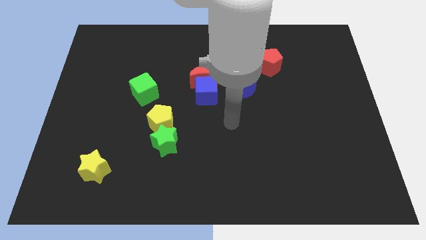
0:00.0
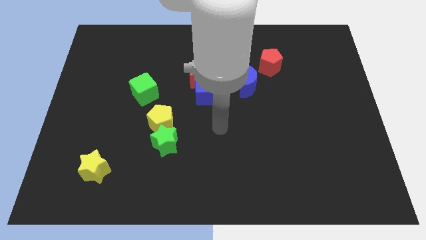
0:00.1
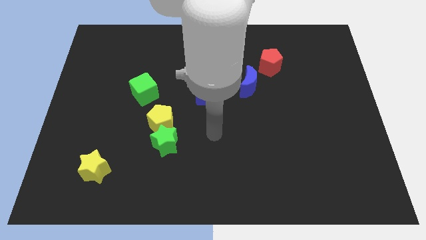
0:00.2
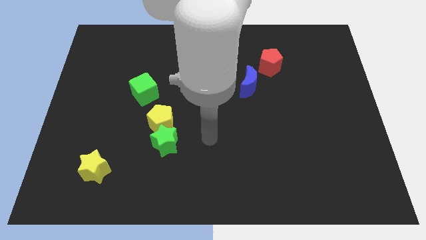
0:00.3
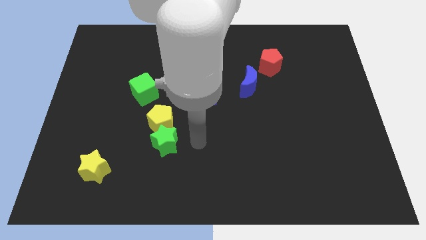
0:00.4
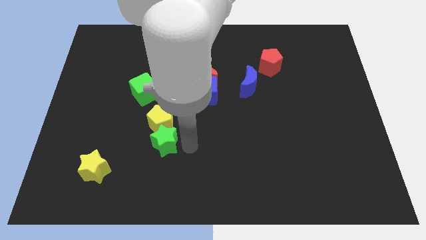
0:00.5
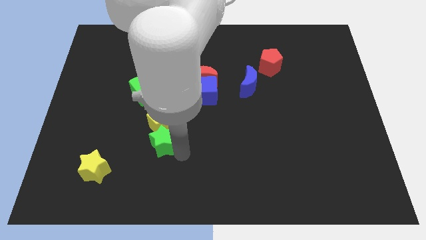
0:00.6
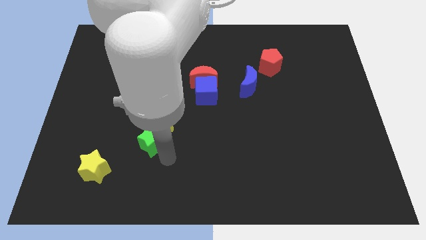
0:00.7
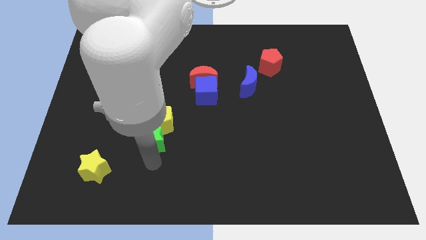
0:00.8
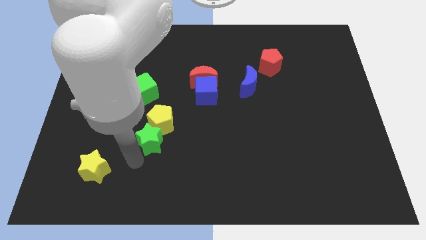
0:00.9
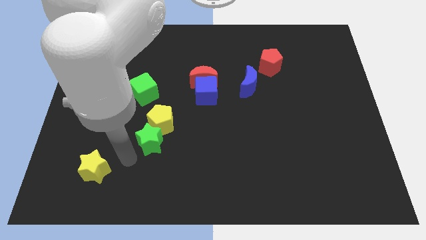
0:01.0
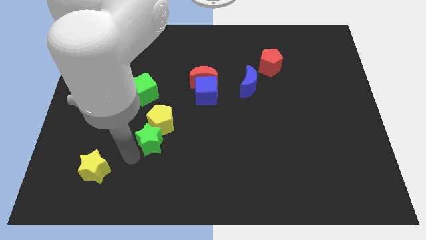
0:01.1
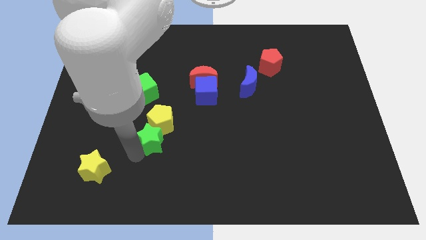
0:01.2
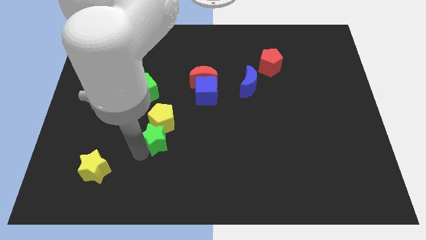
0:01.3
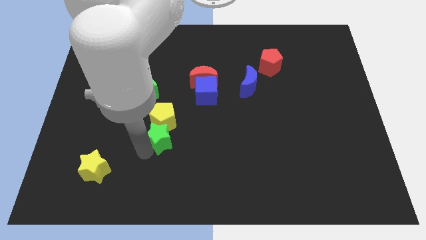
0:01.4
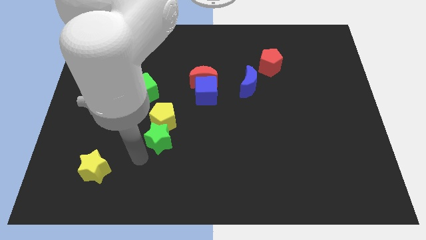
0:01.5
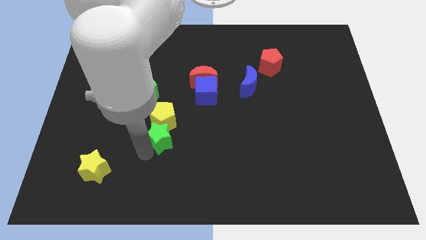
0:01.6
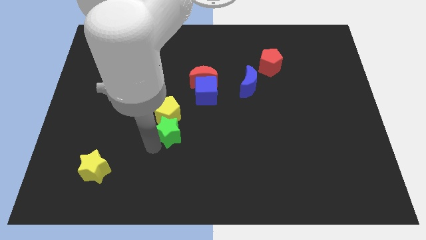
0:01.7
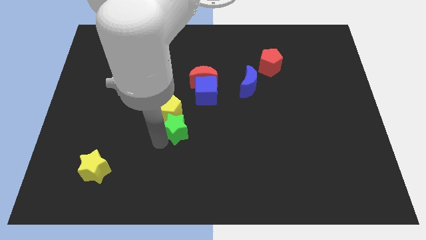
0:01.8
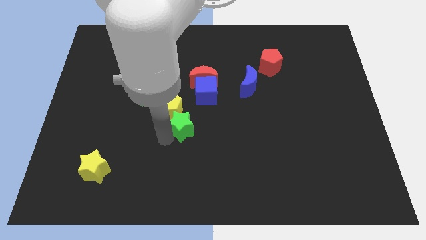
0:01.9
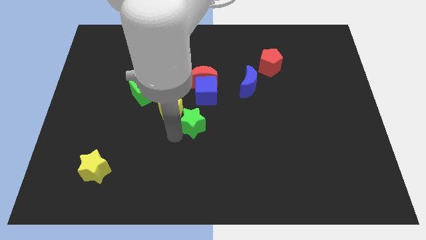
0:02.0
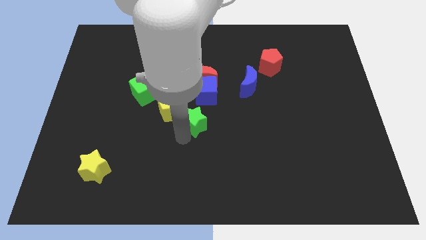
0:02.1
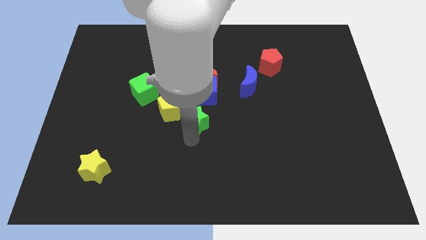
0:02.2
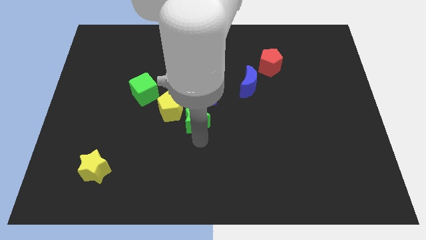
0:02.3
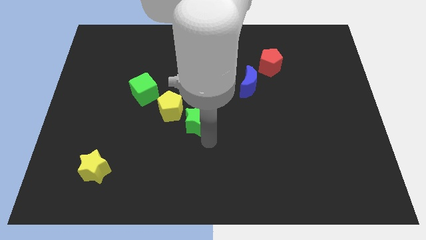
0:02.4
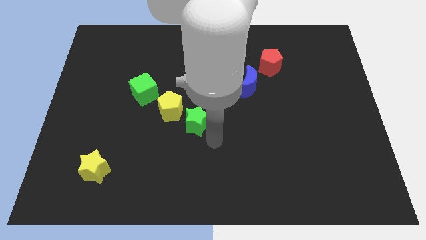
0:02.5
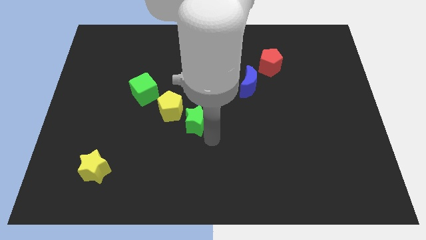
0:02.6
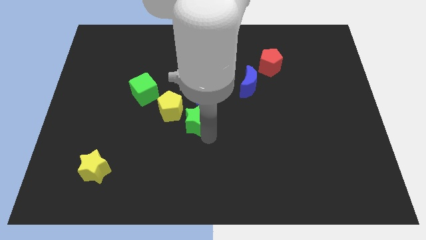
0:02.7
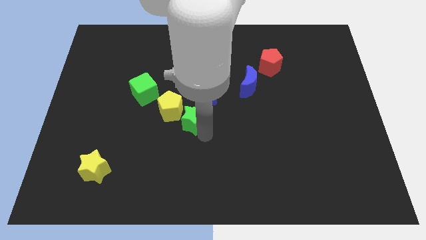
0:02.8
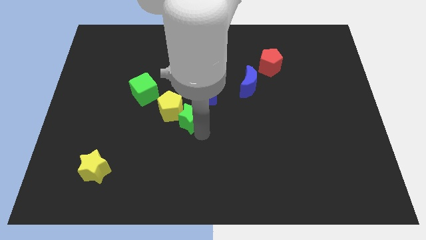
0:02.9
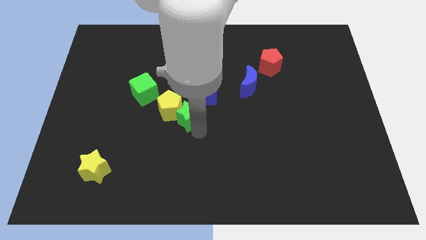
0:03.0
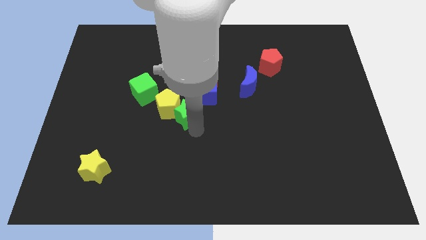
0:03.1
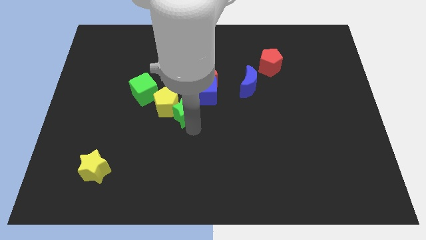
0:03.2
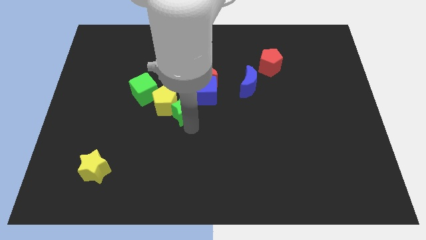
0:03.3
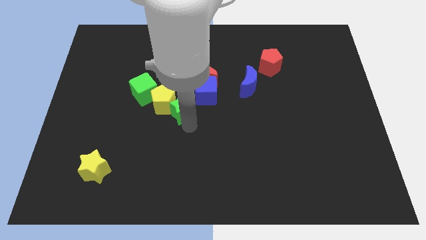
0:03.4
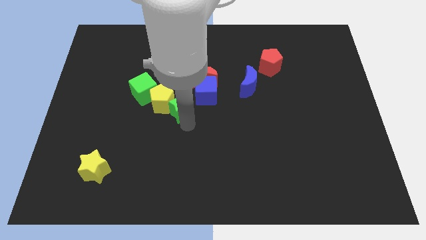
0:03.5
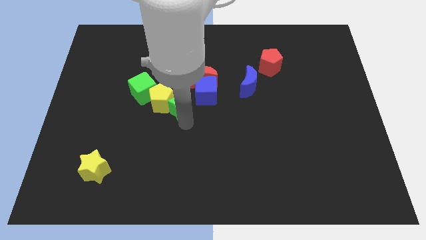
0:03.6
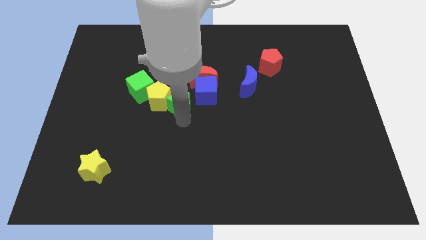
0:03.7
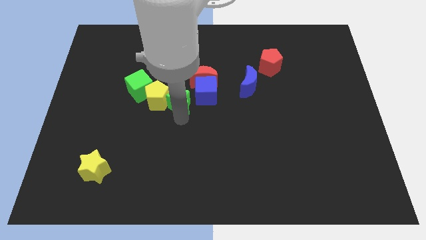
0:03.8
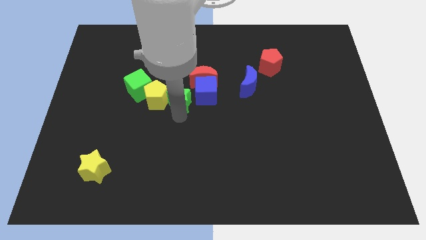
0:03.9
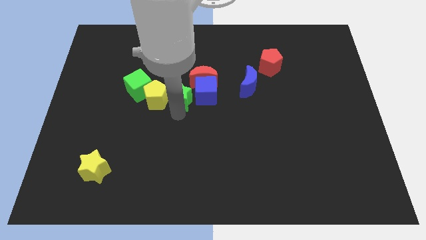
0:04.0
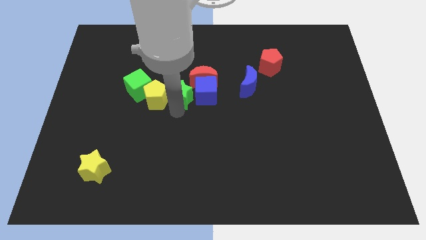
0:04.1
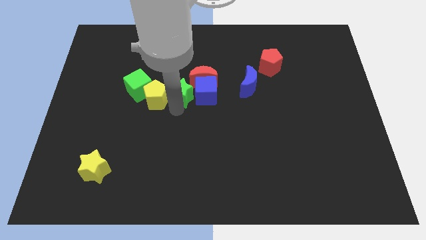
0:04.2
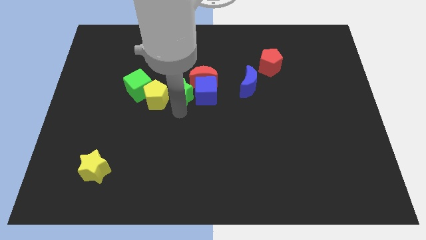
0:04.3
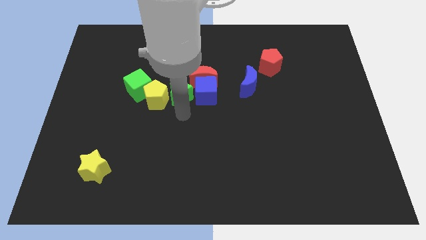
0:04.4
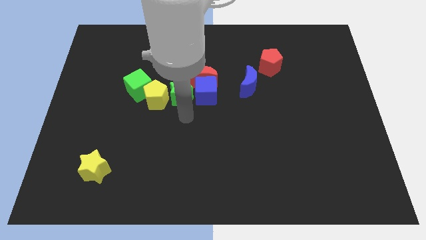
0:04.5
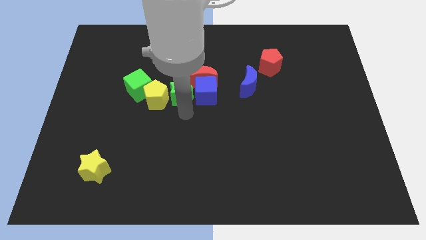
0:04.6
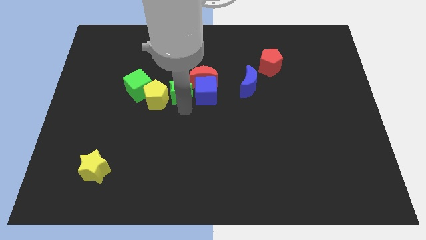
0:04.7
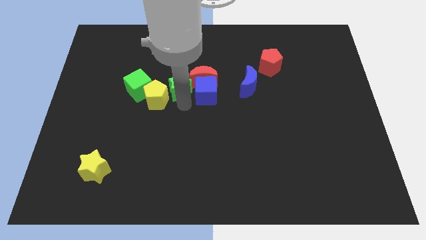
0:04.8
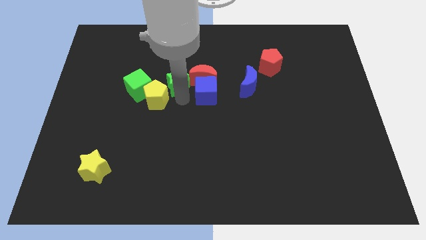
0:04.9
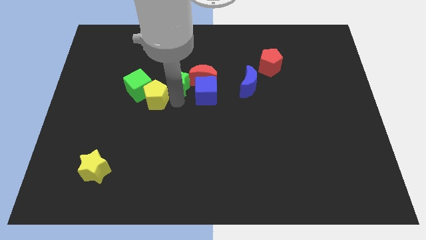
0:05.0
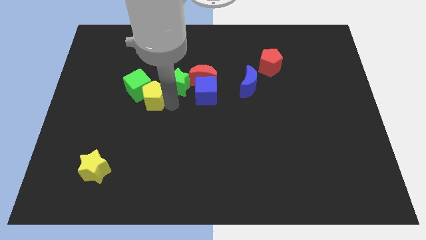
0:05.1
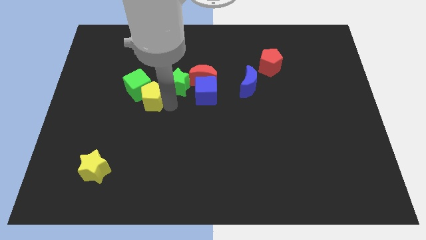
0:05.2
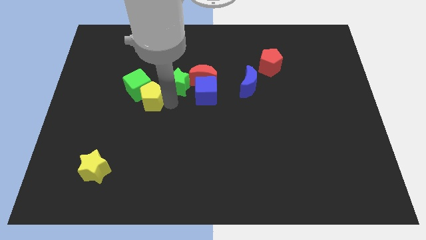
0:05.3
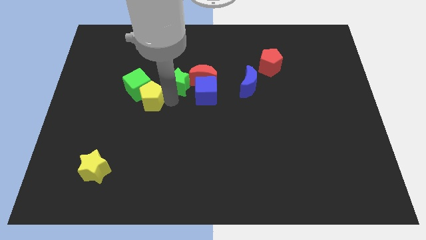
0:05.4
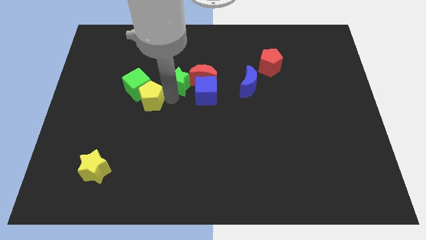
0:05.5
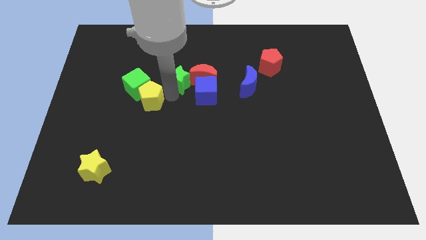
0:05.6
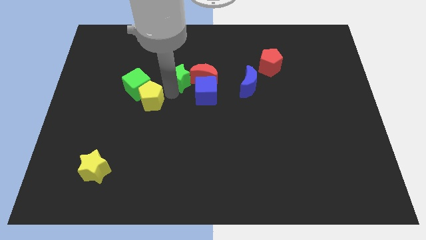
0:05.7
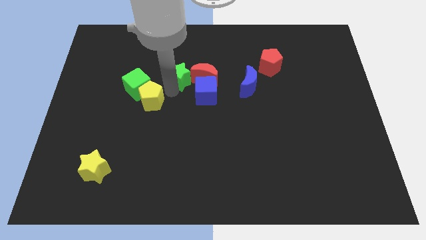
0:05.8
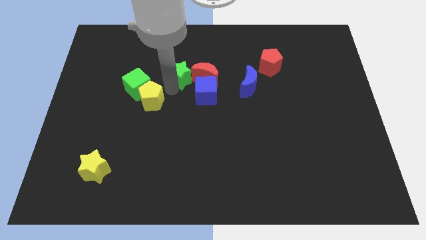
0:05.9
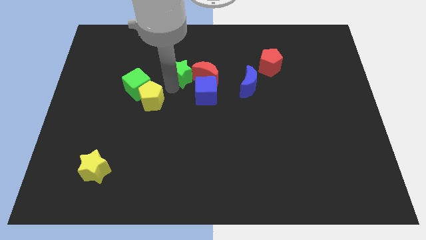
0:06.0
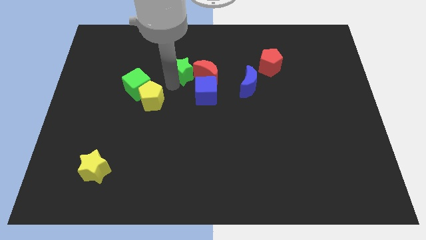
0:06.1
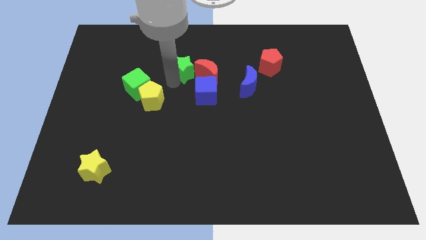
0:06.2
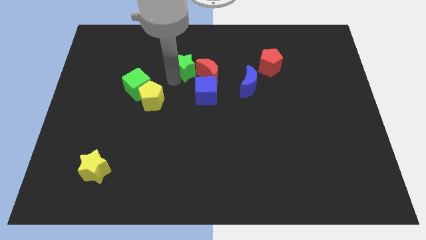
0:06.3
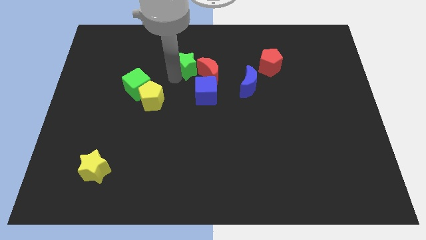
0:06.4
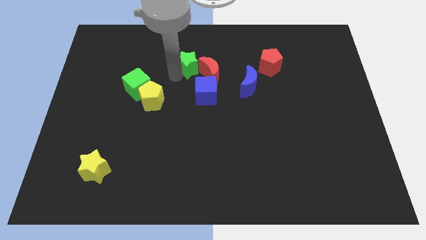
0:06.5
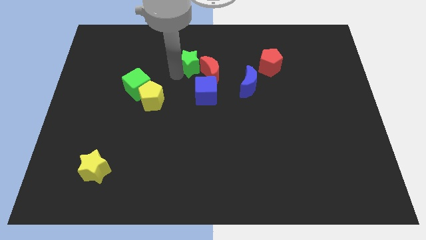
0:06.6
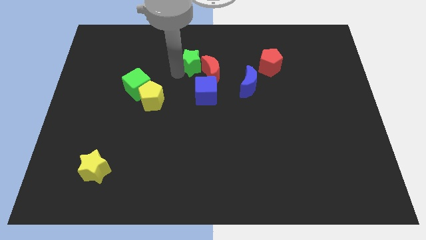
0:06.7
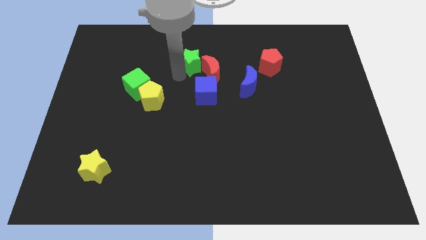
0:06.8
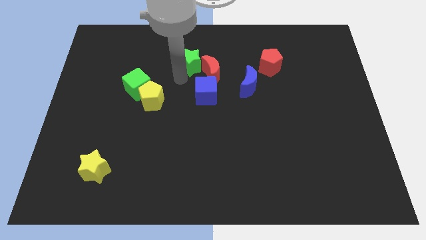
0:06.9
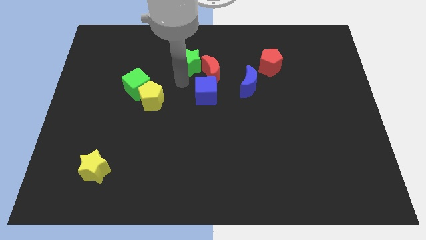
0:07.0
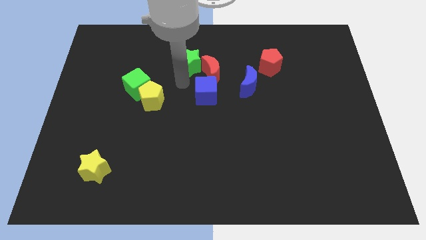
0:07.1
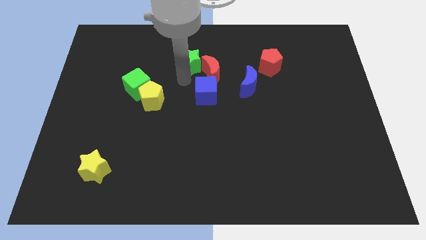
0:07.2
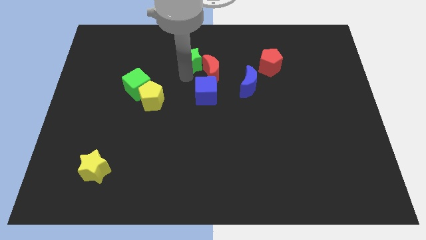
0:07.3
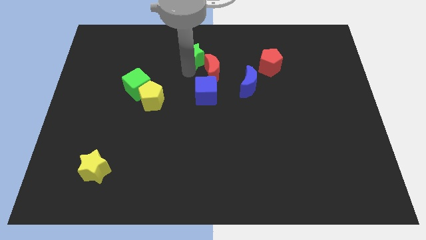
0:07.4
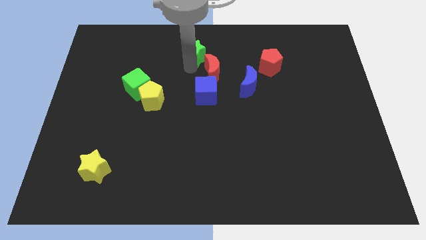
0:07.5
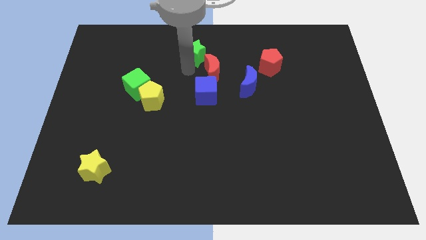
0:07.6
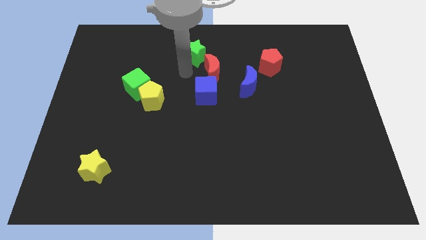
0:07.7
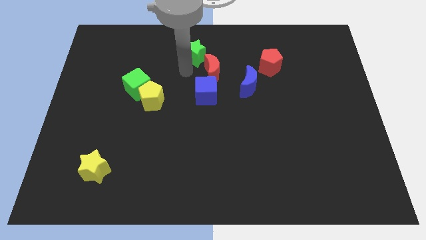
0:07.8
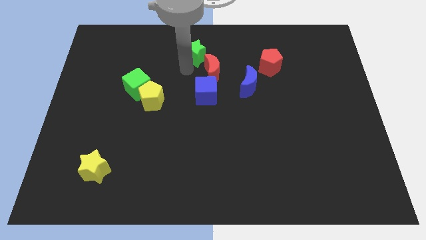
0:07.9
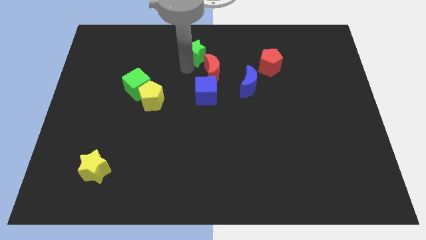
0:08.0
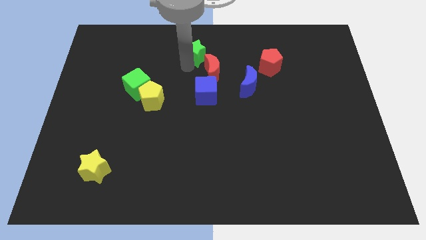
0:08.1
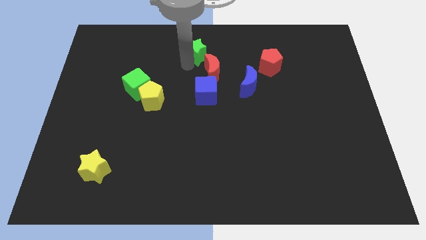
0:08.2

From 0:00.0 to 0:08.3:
push the green star to the top
